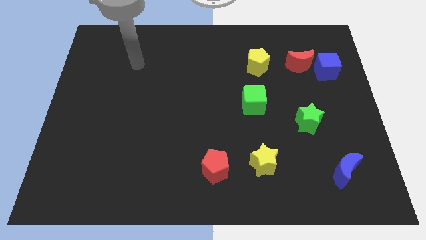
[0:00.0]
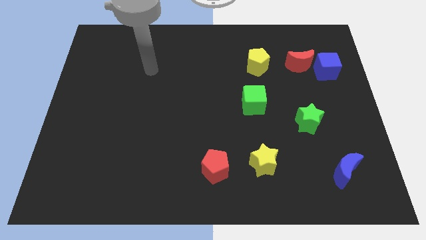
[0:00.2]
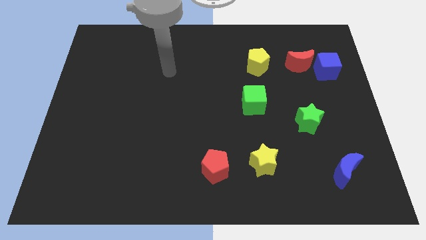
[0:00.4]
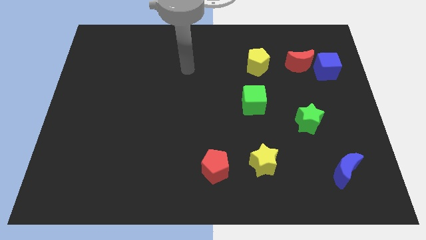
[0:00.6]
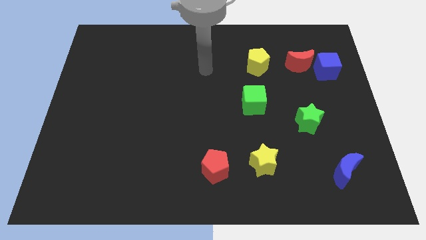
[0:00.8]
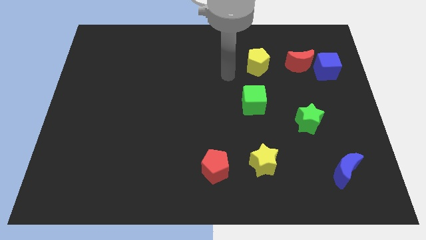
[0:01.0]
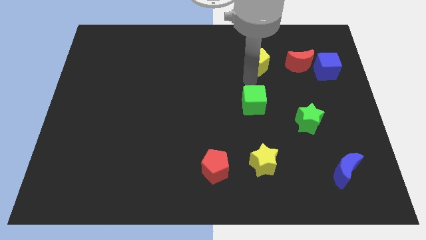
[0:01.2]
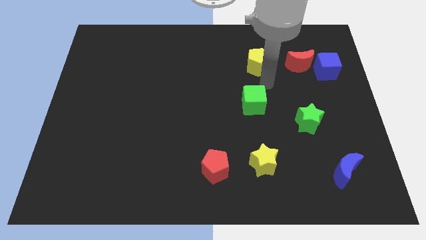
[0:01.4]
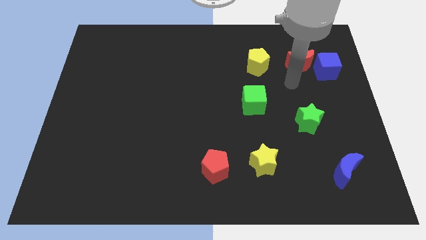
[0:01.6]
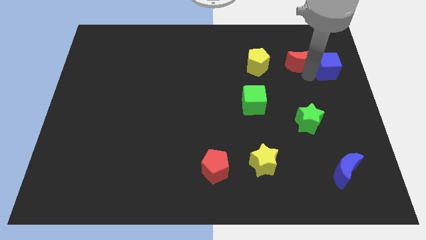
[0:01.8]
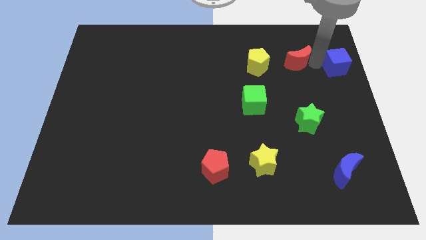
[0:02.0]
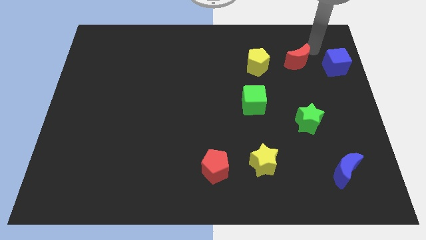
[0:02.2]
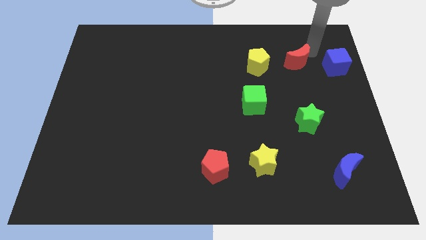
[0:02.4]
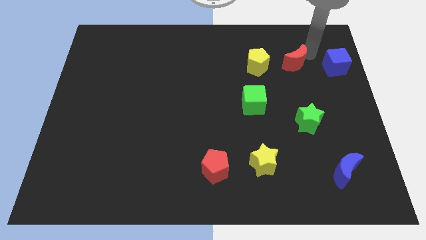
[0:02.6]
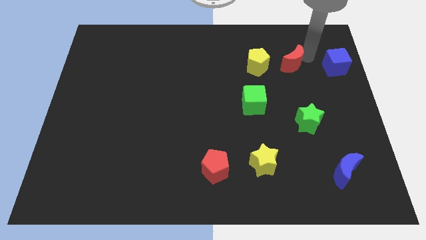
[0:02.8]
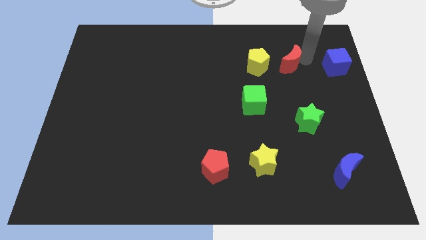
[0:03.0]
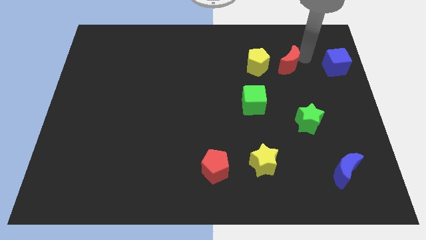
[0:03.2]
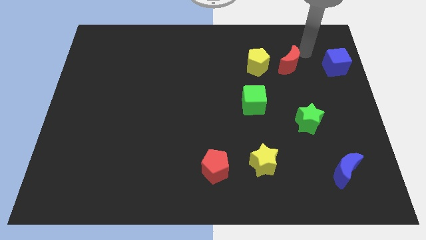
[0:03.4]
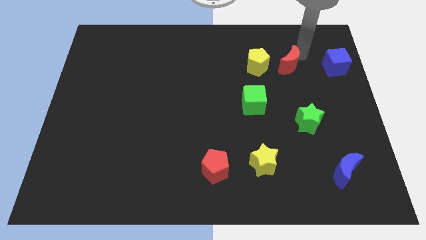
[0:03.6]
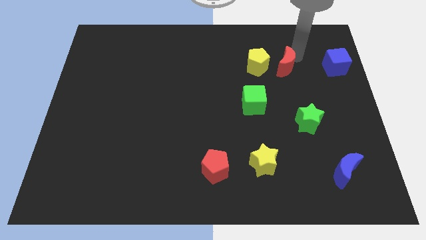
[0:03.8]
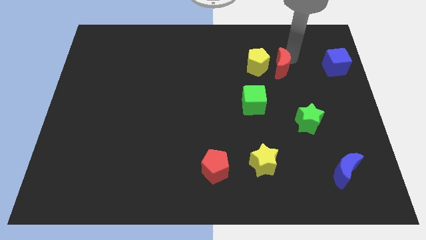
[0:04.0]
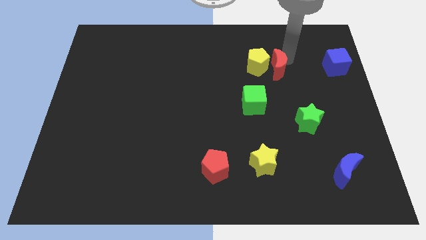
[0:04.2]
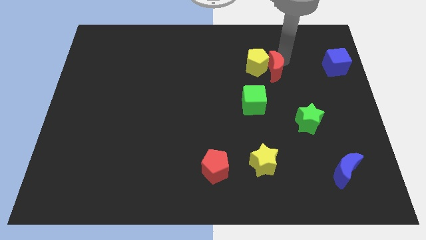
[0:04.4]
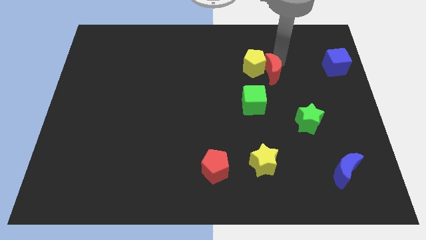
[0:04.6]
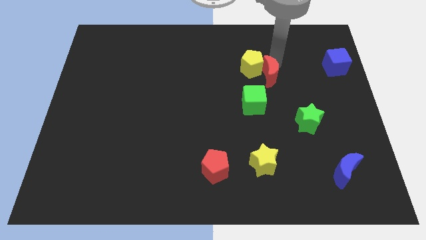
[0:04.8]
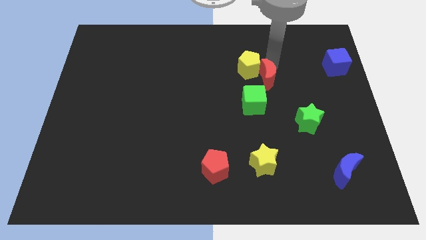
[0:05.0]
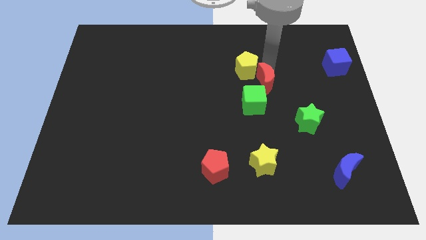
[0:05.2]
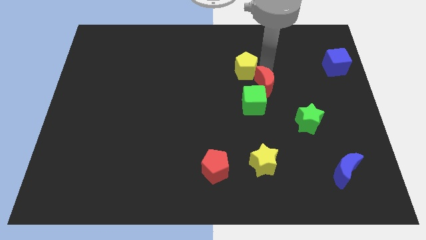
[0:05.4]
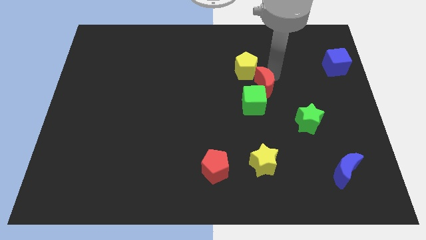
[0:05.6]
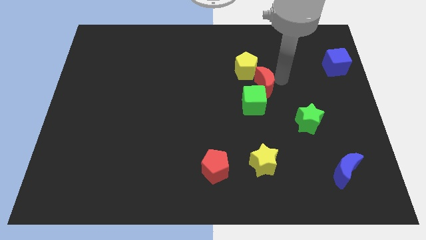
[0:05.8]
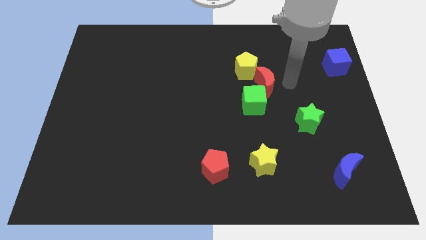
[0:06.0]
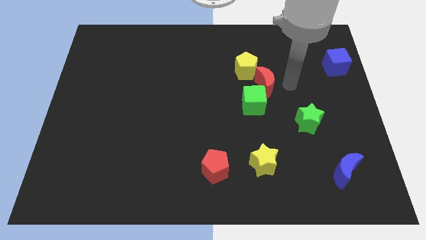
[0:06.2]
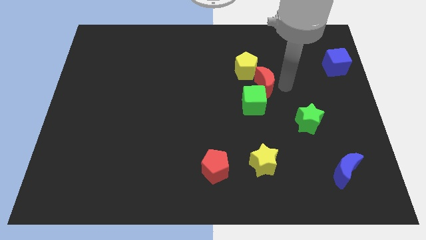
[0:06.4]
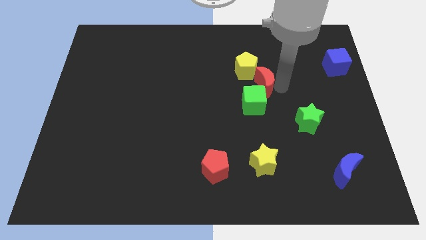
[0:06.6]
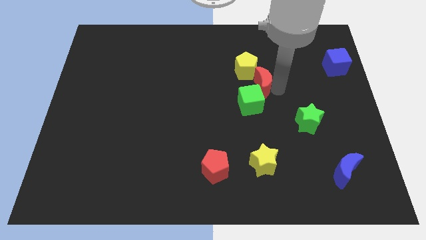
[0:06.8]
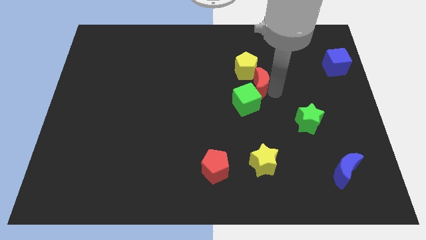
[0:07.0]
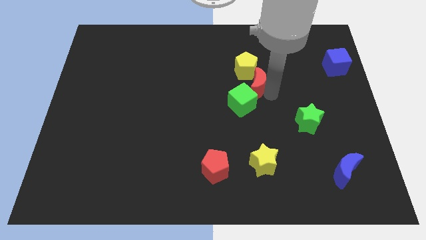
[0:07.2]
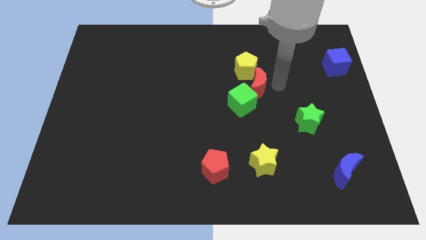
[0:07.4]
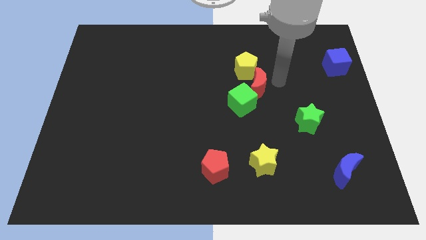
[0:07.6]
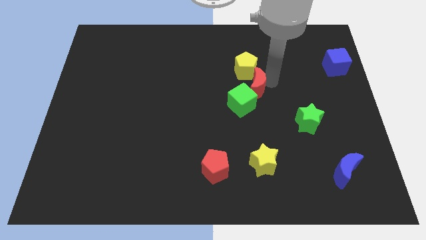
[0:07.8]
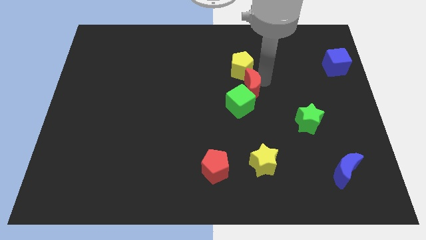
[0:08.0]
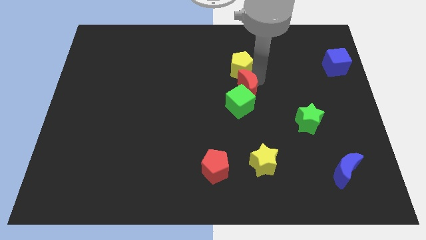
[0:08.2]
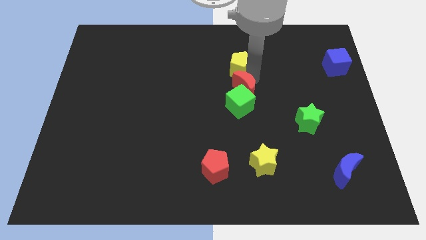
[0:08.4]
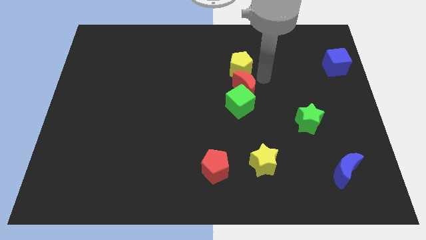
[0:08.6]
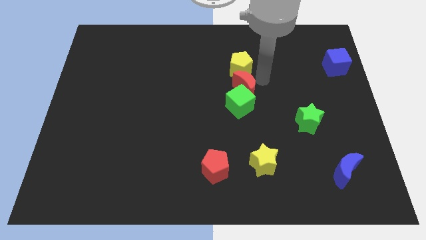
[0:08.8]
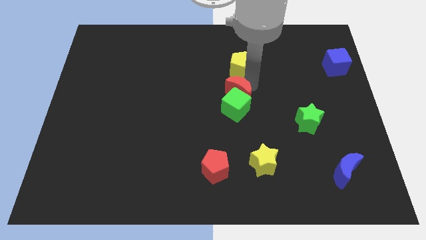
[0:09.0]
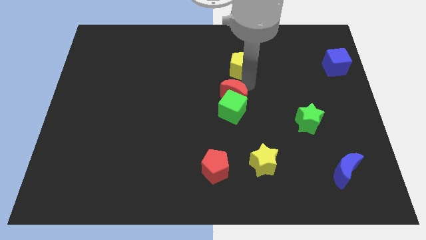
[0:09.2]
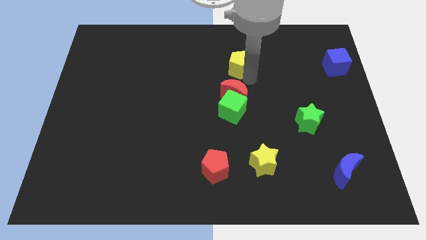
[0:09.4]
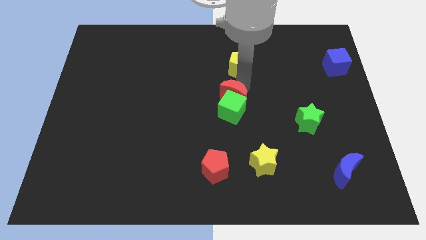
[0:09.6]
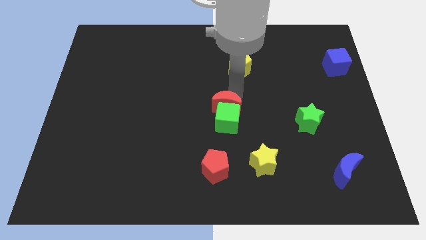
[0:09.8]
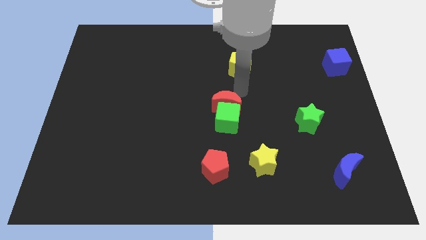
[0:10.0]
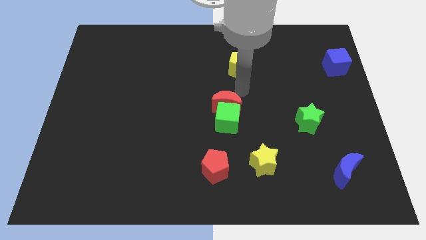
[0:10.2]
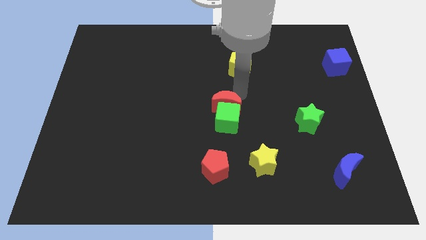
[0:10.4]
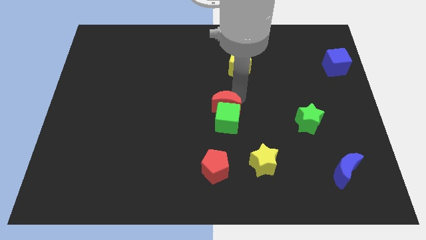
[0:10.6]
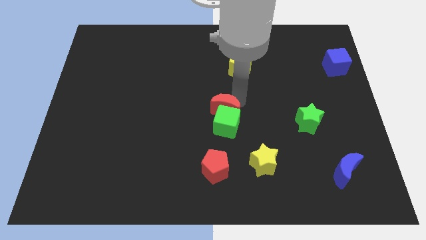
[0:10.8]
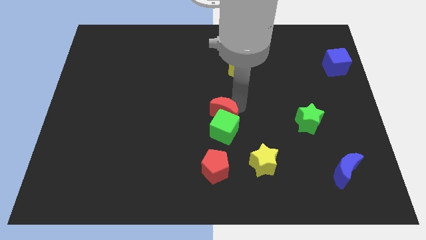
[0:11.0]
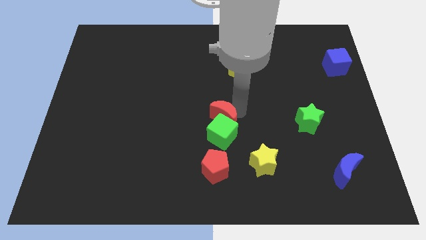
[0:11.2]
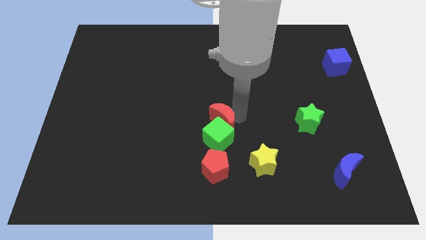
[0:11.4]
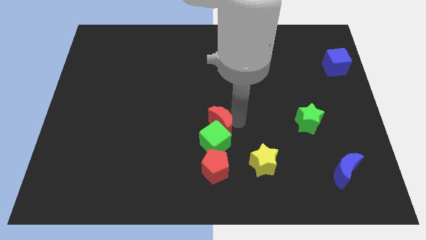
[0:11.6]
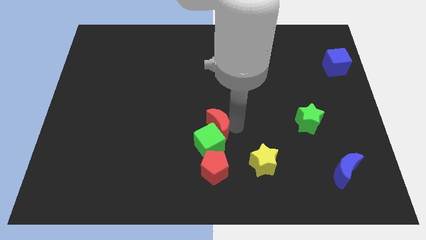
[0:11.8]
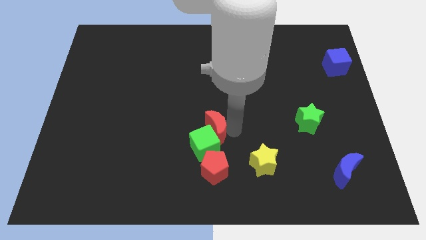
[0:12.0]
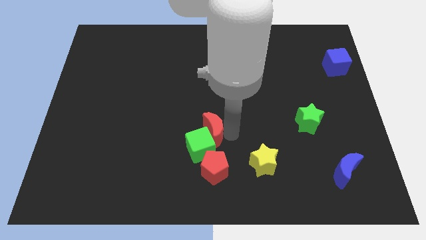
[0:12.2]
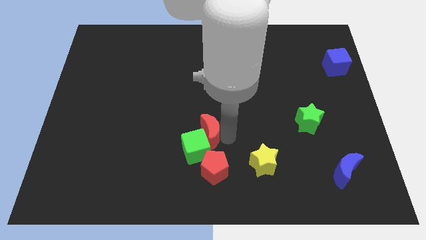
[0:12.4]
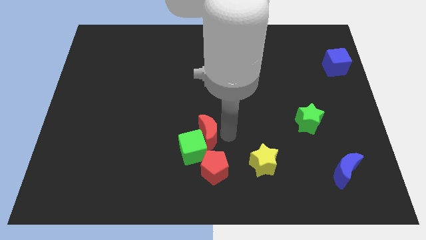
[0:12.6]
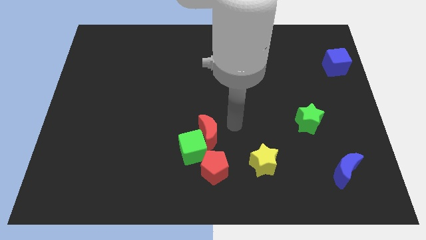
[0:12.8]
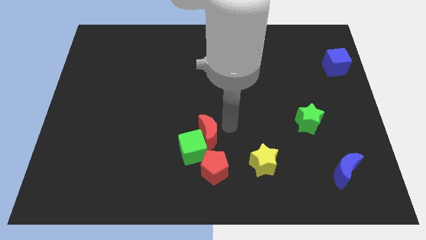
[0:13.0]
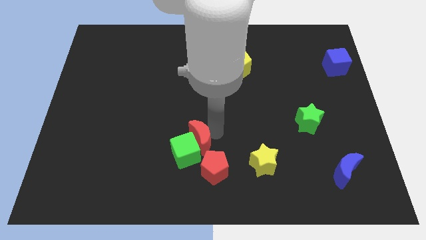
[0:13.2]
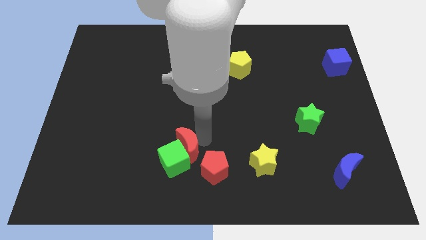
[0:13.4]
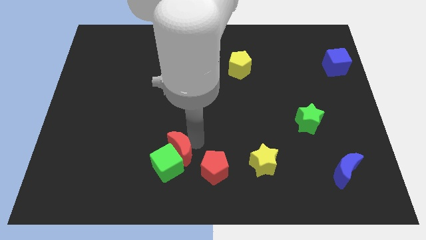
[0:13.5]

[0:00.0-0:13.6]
push the red moon to the left side of the red pentagon
